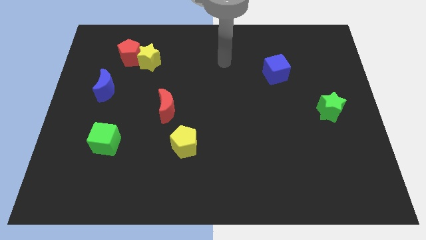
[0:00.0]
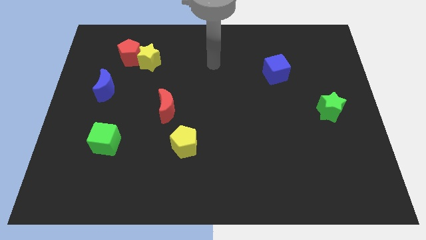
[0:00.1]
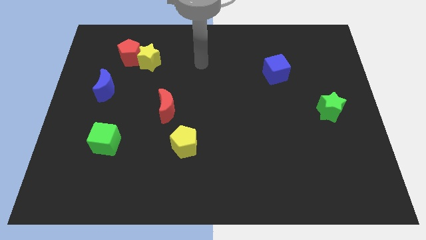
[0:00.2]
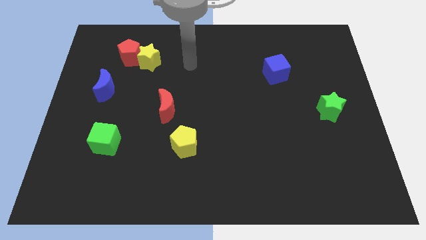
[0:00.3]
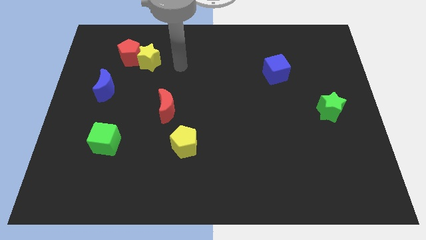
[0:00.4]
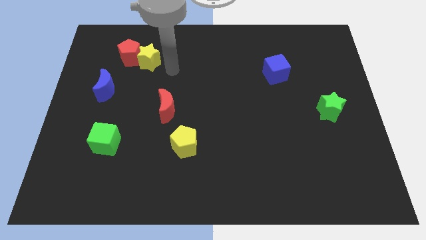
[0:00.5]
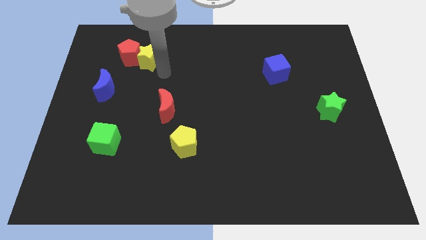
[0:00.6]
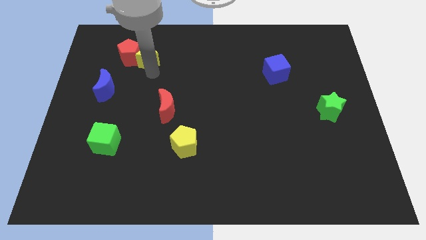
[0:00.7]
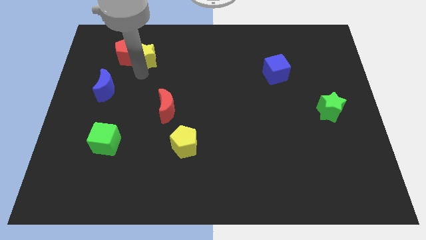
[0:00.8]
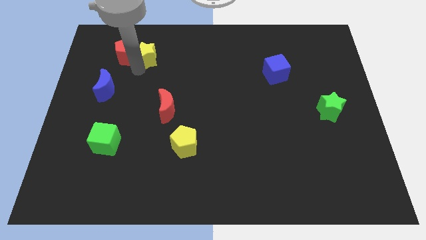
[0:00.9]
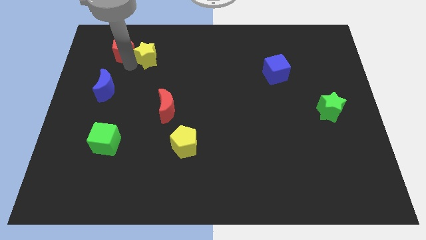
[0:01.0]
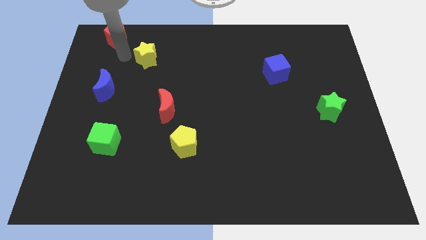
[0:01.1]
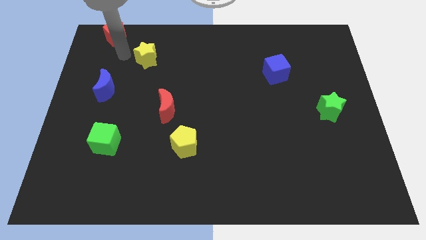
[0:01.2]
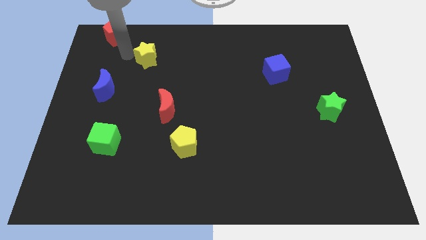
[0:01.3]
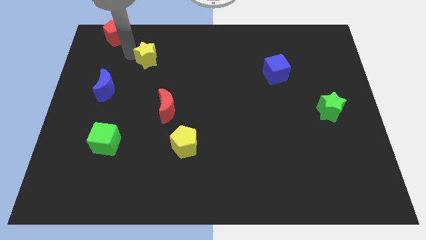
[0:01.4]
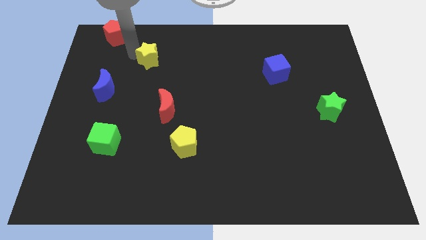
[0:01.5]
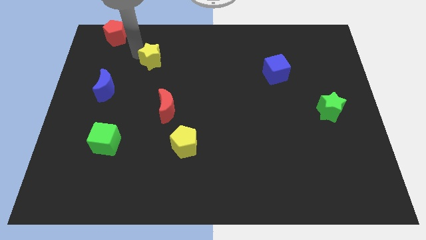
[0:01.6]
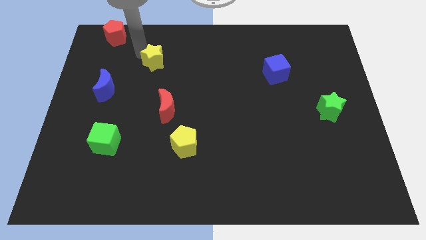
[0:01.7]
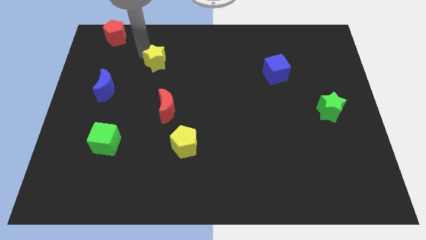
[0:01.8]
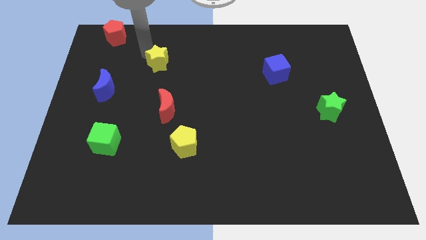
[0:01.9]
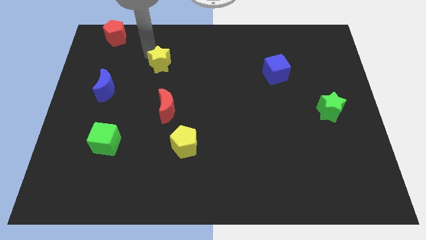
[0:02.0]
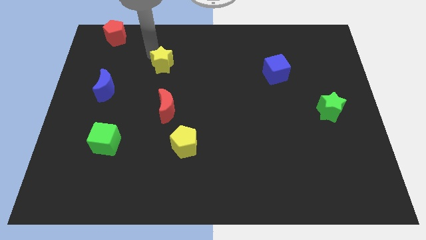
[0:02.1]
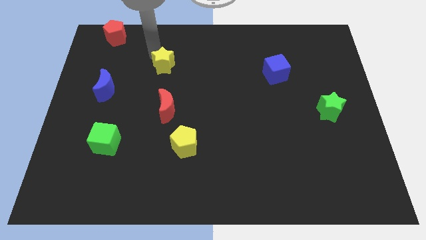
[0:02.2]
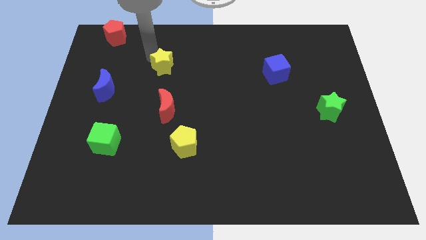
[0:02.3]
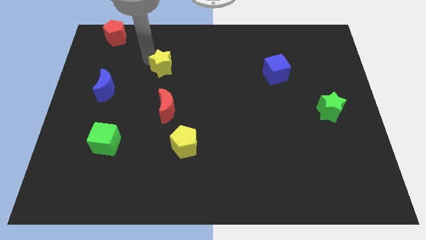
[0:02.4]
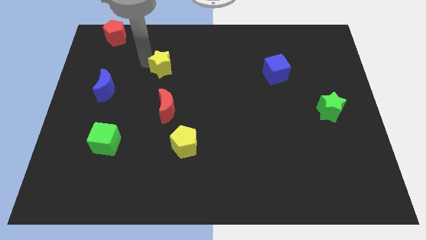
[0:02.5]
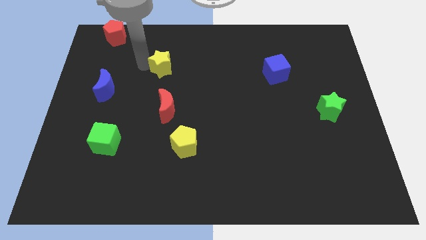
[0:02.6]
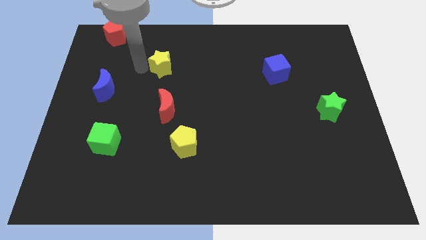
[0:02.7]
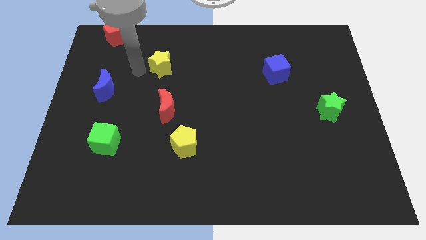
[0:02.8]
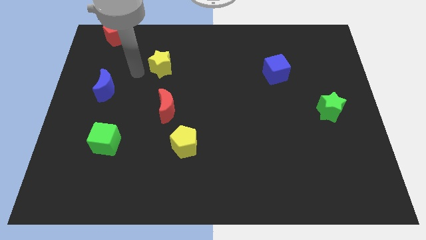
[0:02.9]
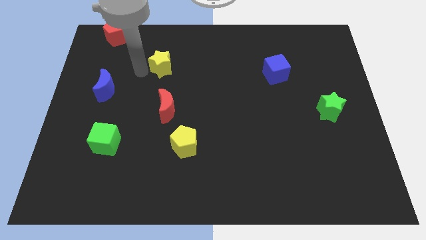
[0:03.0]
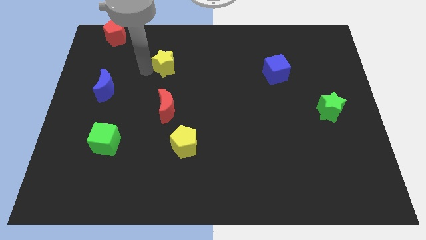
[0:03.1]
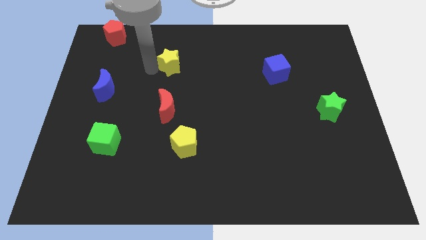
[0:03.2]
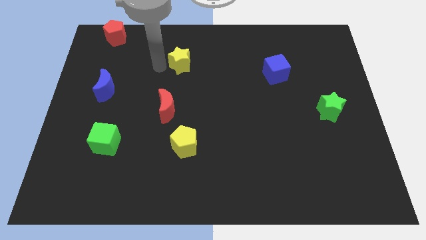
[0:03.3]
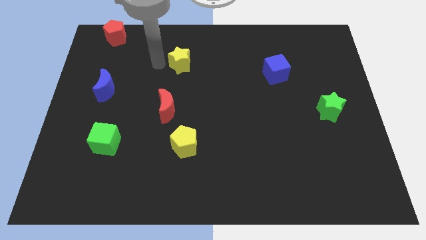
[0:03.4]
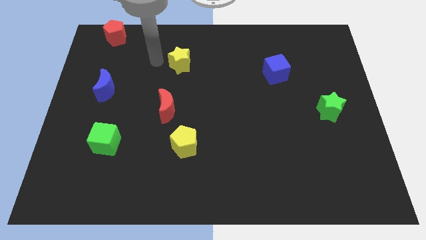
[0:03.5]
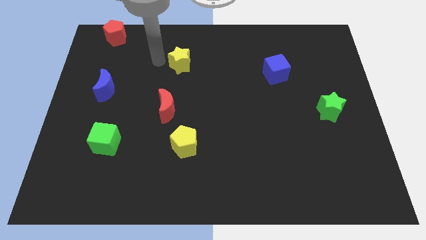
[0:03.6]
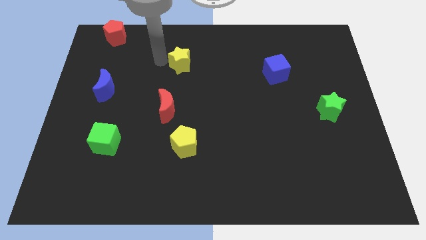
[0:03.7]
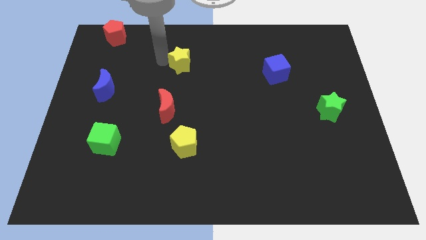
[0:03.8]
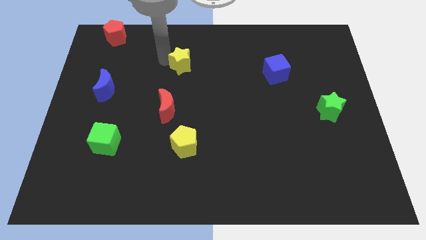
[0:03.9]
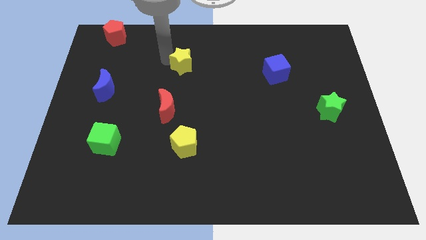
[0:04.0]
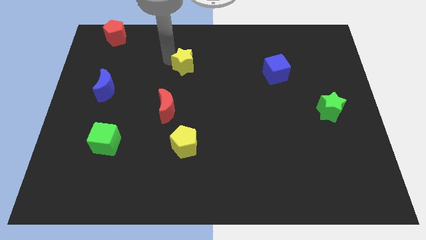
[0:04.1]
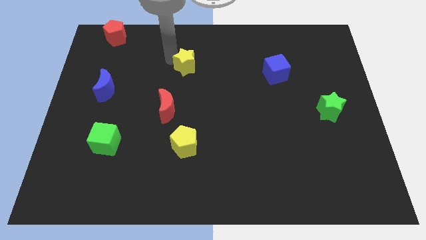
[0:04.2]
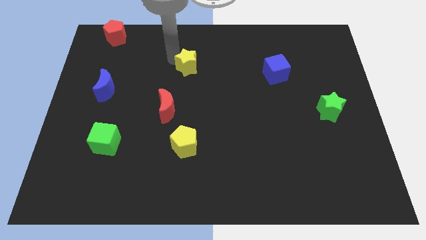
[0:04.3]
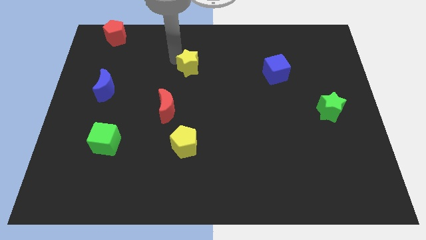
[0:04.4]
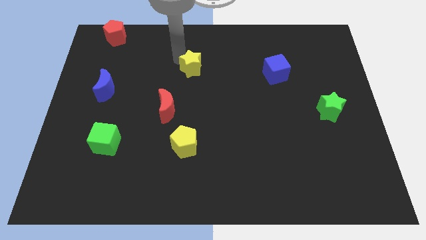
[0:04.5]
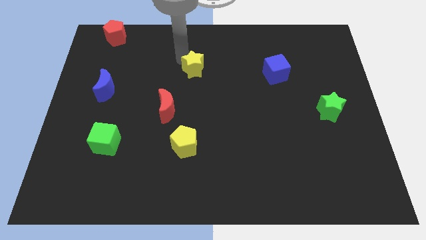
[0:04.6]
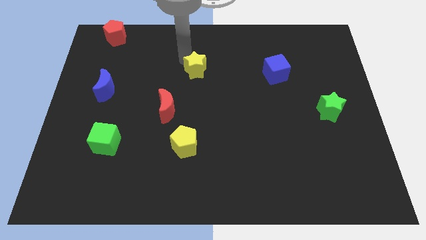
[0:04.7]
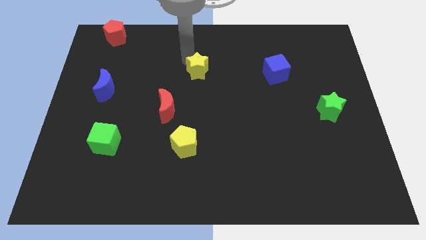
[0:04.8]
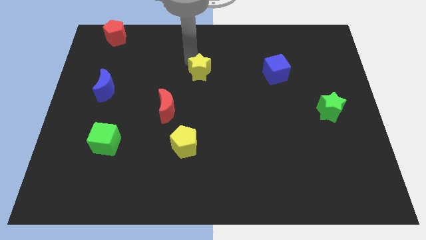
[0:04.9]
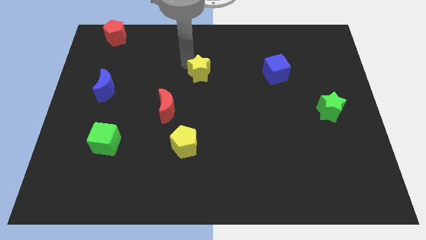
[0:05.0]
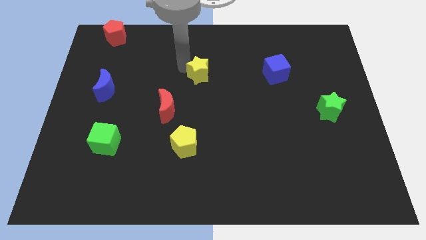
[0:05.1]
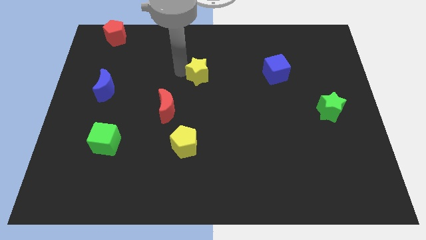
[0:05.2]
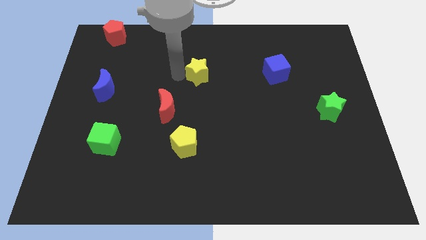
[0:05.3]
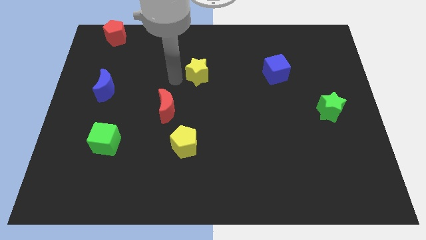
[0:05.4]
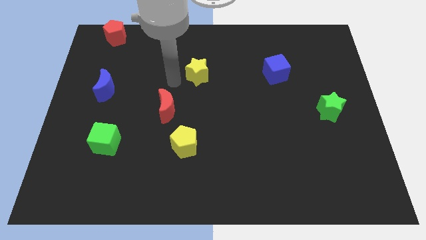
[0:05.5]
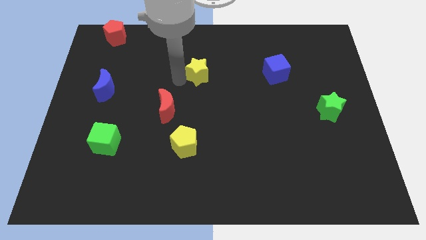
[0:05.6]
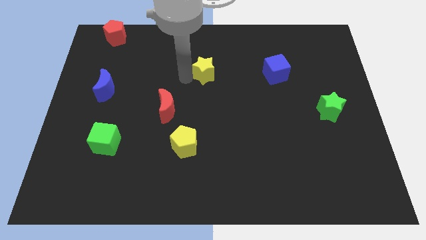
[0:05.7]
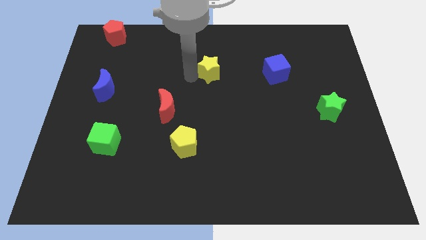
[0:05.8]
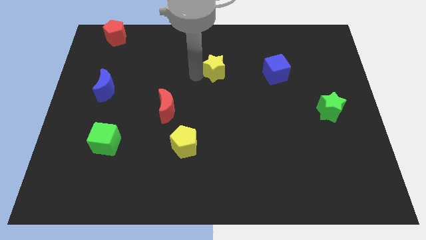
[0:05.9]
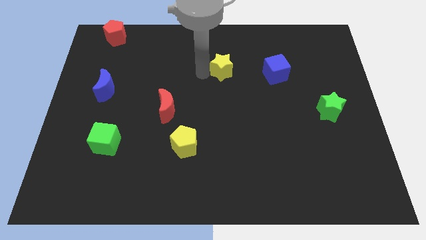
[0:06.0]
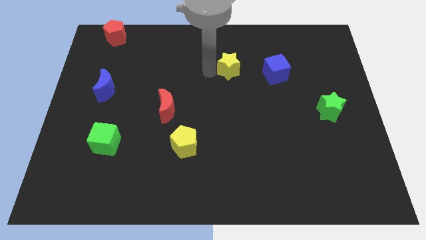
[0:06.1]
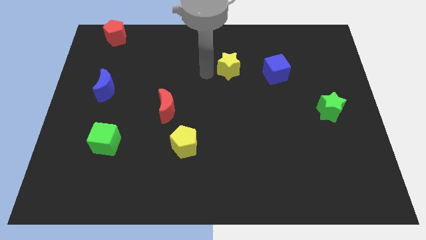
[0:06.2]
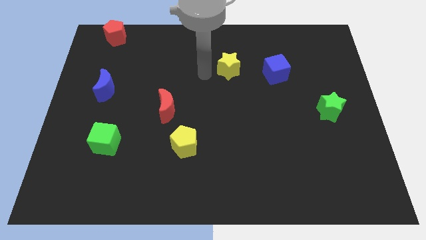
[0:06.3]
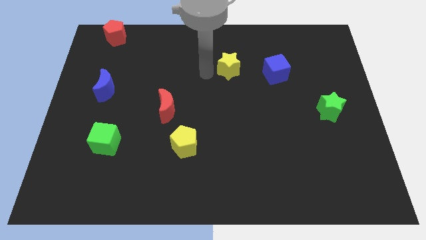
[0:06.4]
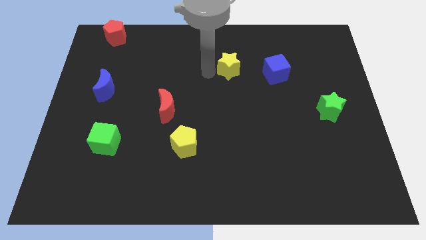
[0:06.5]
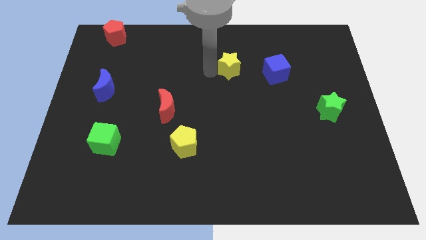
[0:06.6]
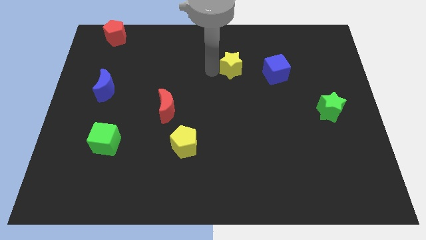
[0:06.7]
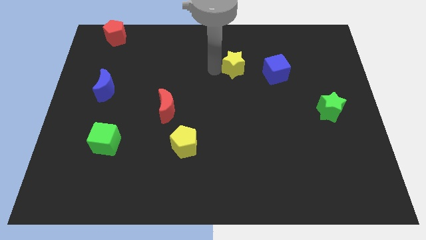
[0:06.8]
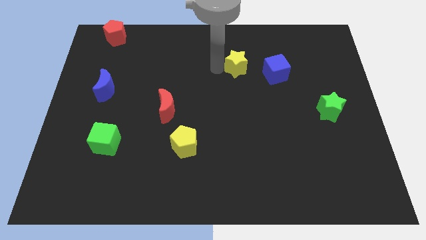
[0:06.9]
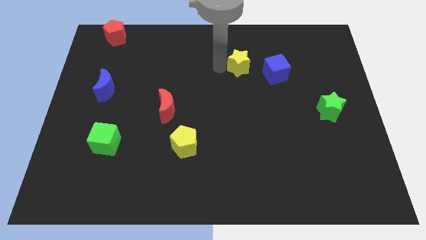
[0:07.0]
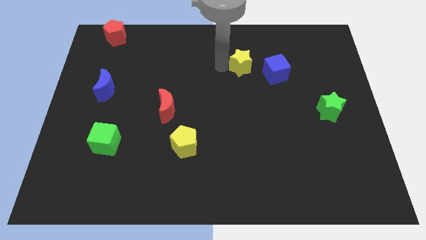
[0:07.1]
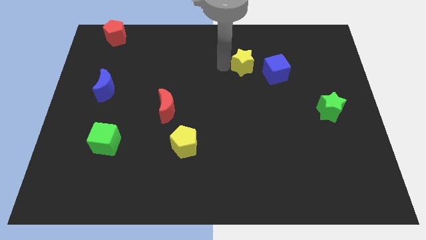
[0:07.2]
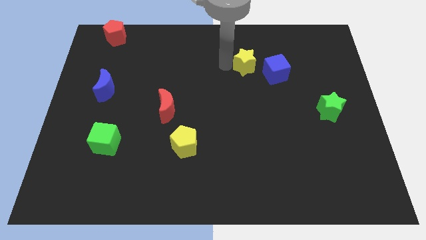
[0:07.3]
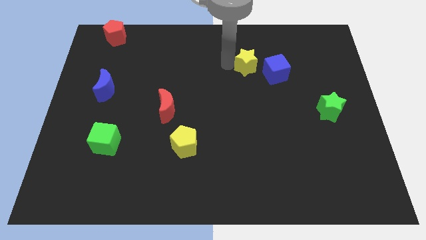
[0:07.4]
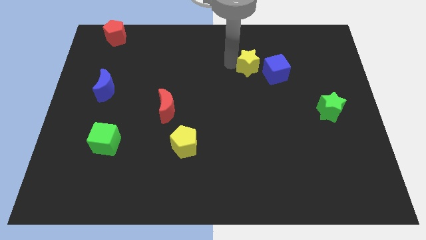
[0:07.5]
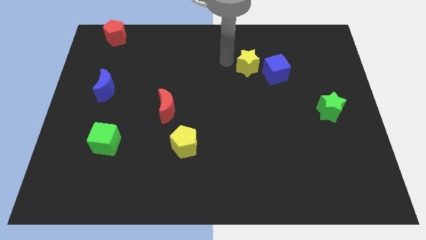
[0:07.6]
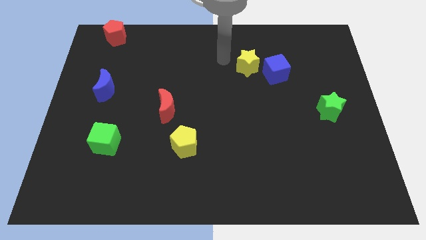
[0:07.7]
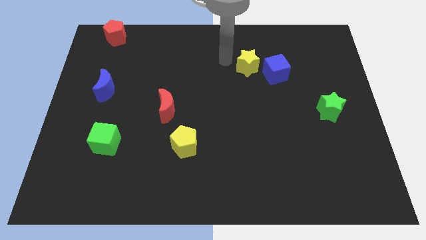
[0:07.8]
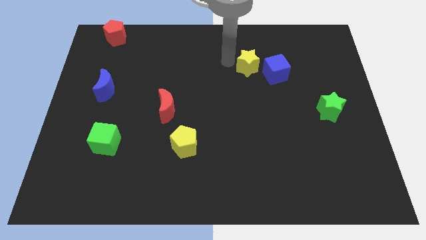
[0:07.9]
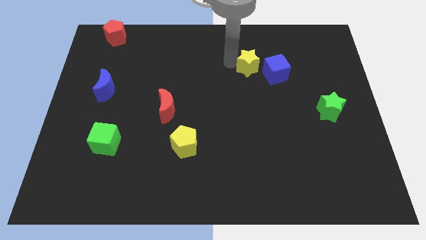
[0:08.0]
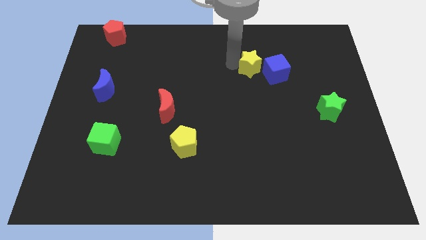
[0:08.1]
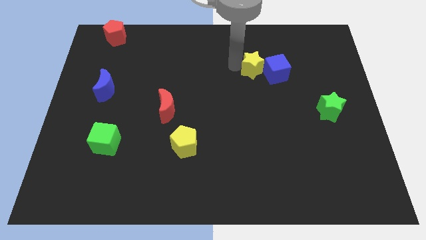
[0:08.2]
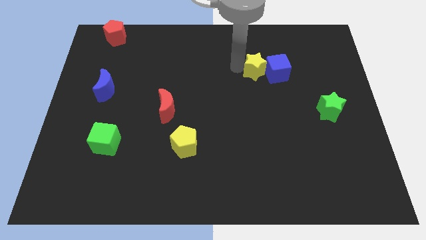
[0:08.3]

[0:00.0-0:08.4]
push the yellow star to the blue cube
